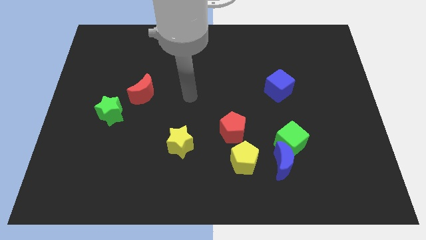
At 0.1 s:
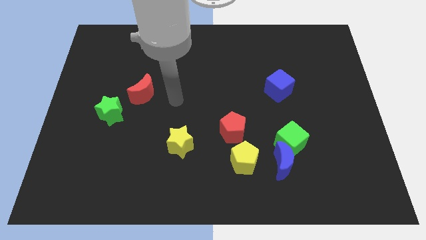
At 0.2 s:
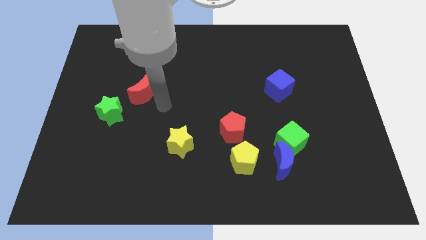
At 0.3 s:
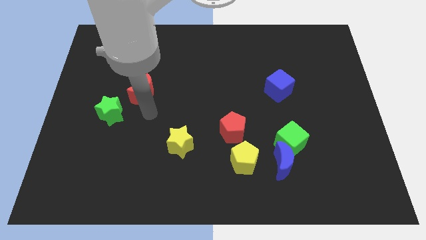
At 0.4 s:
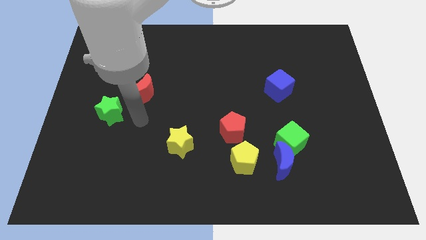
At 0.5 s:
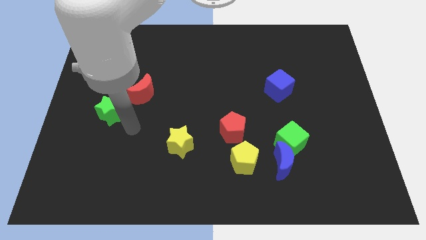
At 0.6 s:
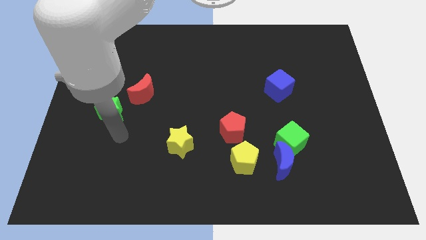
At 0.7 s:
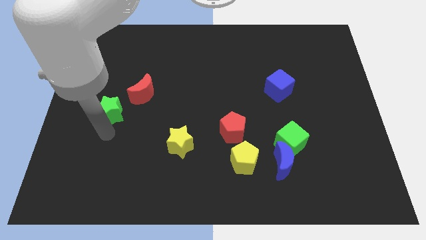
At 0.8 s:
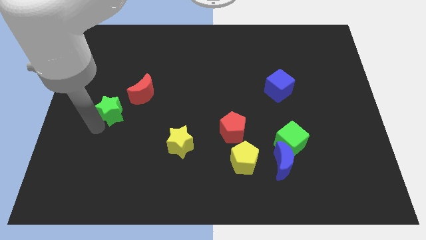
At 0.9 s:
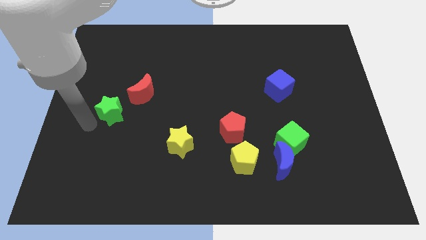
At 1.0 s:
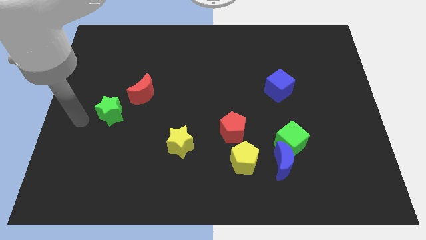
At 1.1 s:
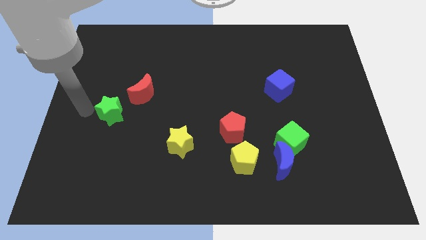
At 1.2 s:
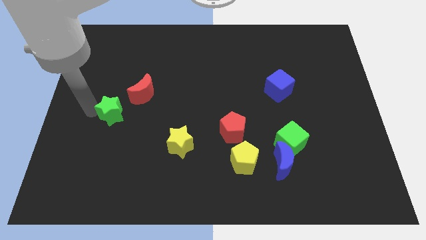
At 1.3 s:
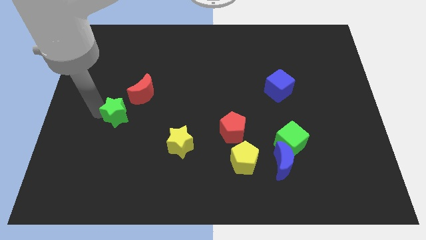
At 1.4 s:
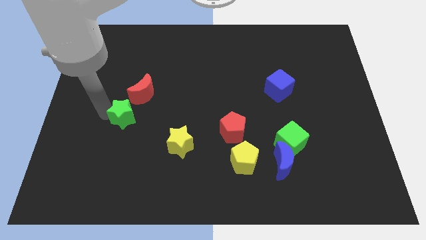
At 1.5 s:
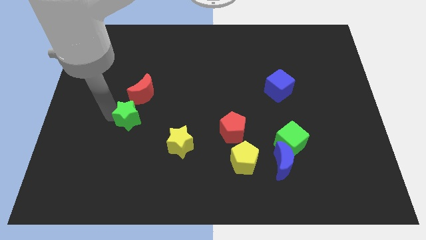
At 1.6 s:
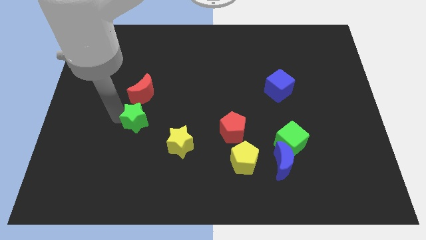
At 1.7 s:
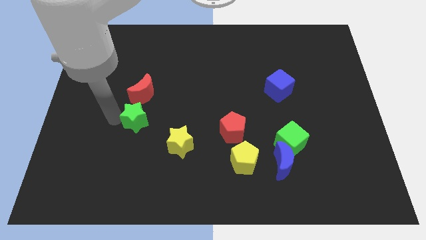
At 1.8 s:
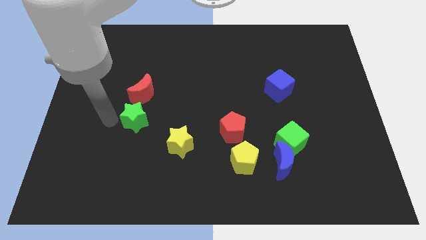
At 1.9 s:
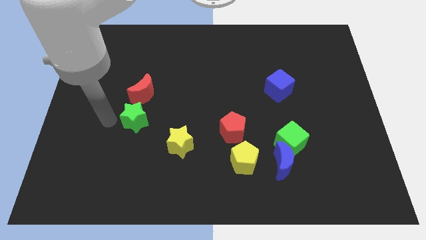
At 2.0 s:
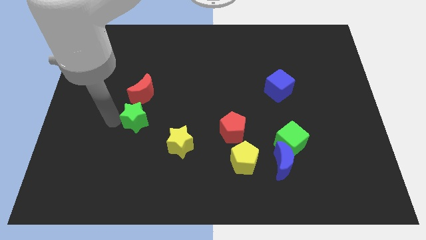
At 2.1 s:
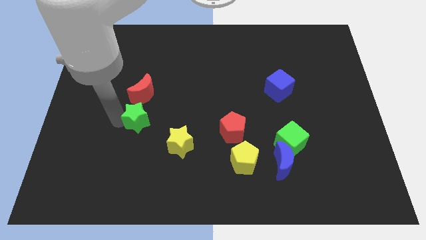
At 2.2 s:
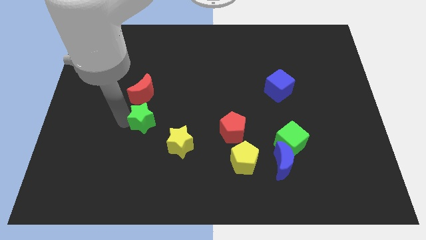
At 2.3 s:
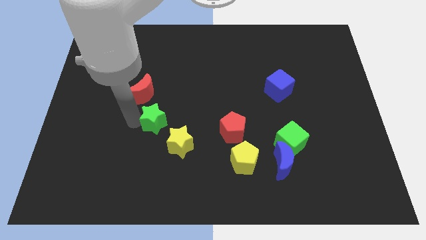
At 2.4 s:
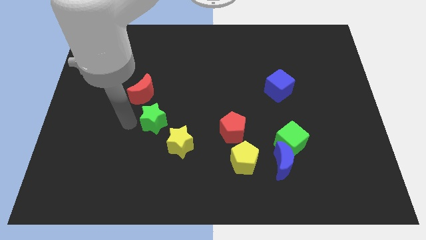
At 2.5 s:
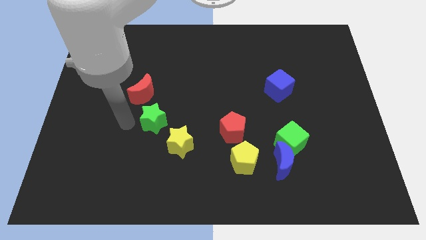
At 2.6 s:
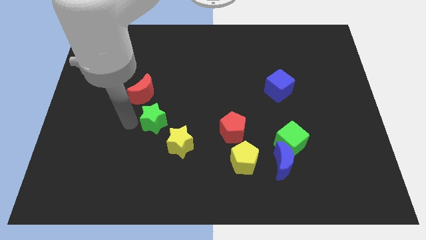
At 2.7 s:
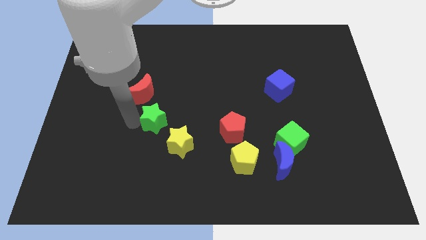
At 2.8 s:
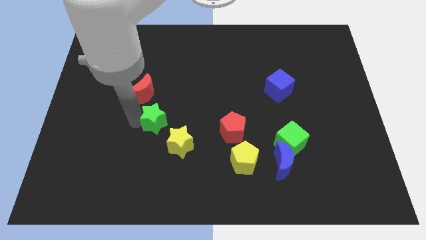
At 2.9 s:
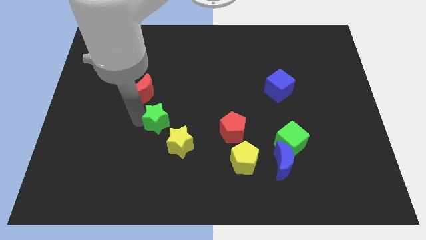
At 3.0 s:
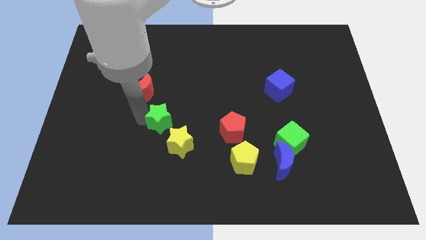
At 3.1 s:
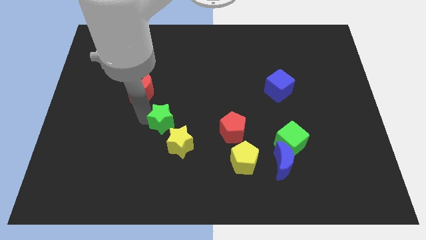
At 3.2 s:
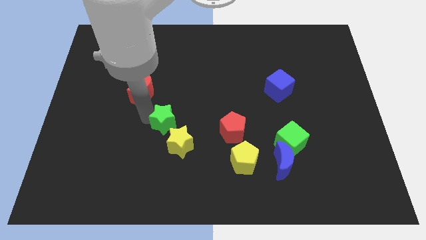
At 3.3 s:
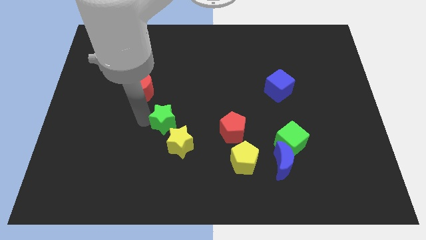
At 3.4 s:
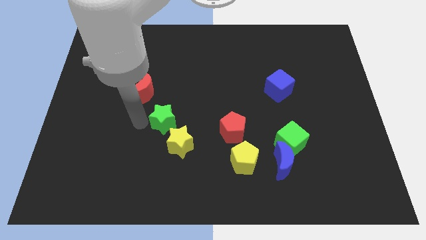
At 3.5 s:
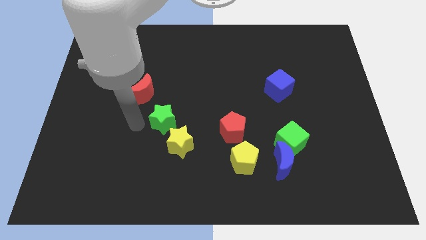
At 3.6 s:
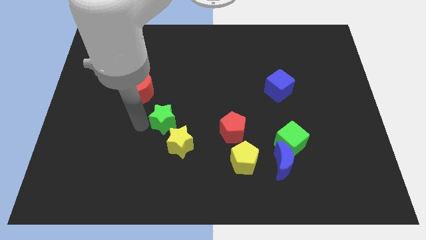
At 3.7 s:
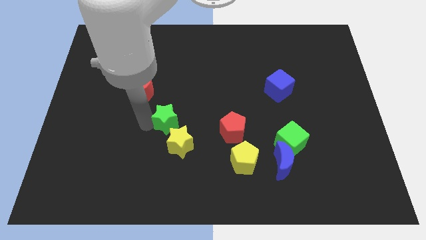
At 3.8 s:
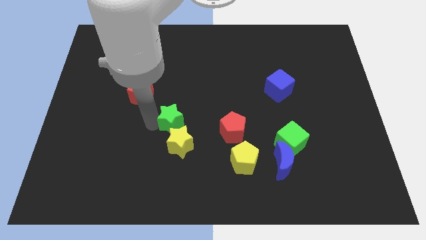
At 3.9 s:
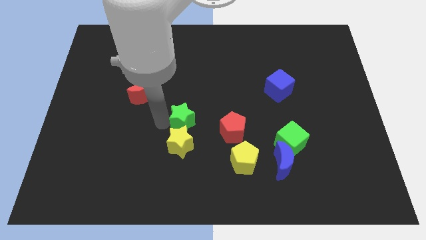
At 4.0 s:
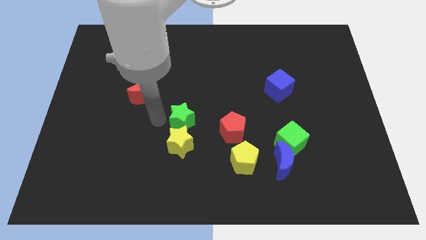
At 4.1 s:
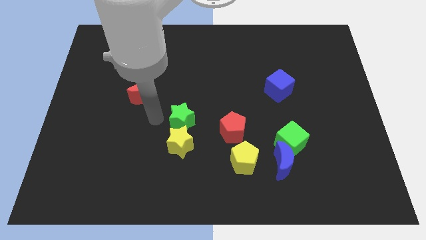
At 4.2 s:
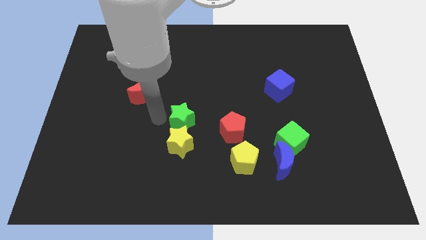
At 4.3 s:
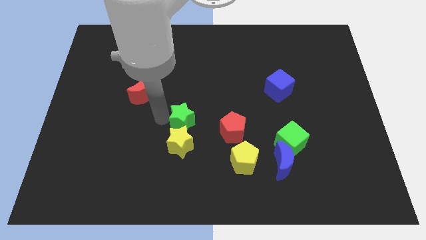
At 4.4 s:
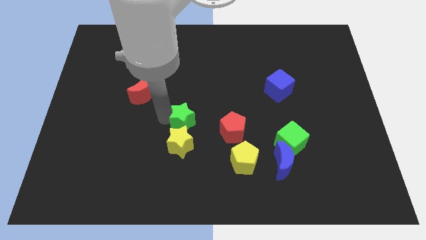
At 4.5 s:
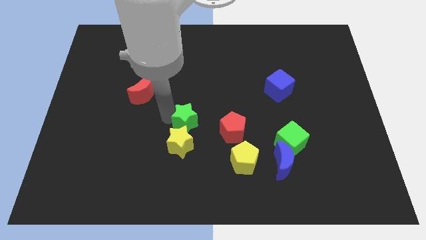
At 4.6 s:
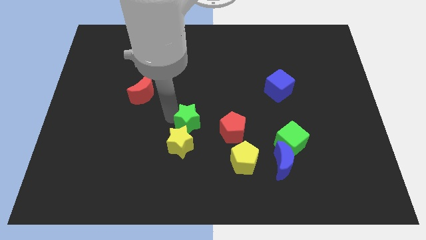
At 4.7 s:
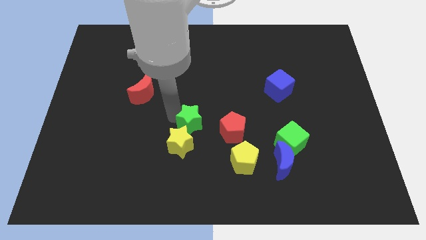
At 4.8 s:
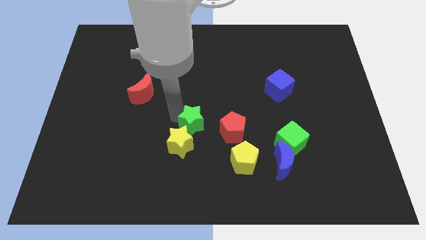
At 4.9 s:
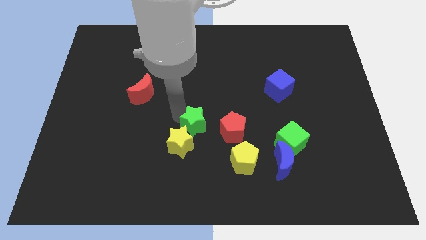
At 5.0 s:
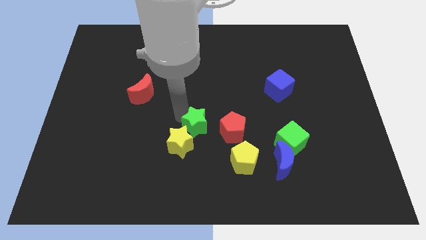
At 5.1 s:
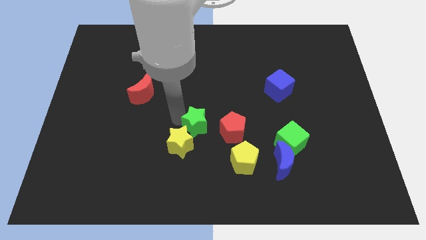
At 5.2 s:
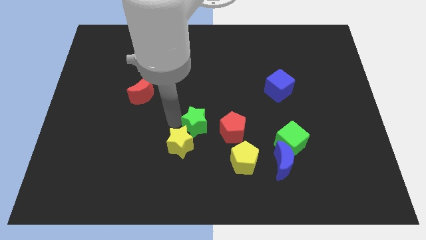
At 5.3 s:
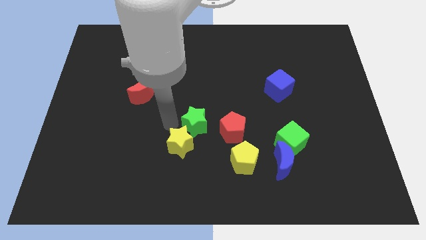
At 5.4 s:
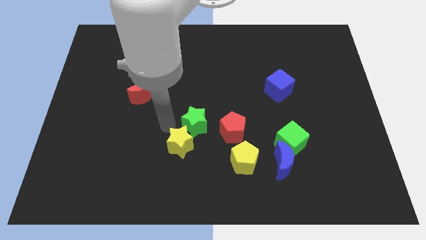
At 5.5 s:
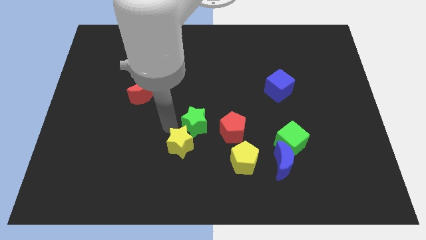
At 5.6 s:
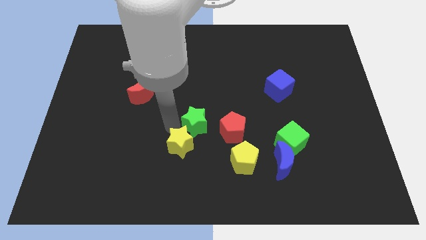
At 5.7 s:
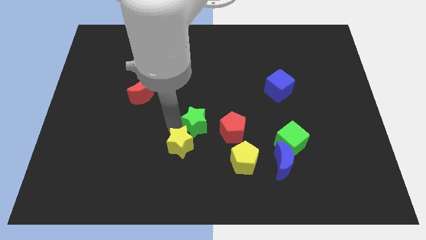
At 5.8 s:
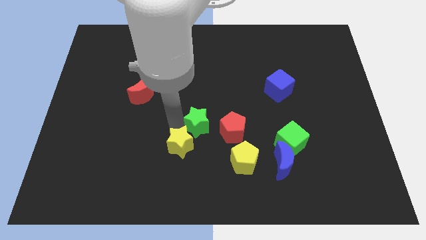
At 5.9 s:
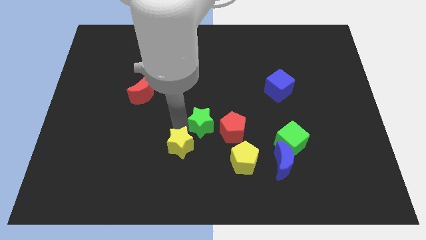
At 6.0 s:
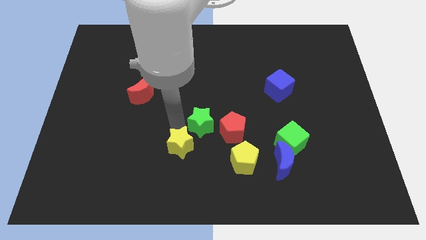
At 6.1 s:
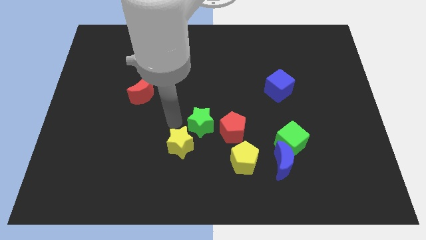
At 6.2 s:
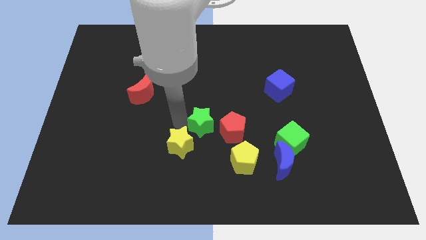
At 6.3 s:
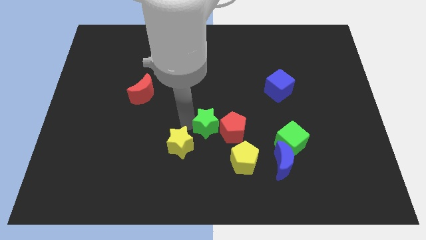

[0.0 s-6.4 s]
push the green star towards the red pentagon

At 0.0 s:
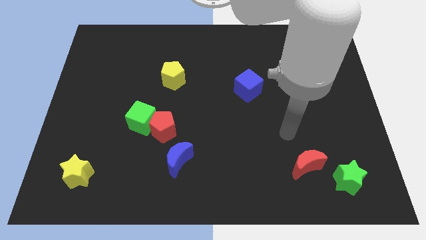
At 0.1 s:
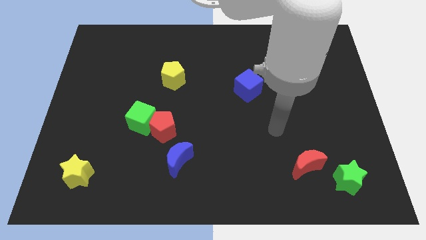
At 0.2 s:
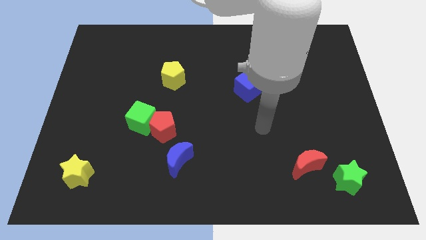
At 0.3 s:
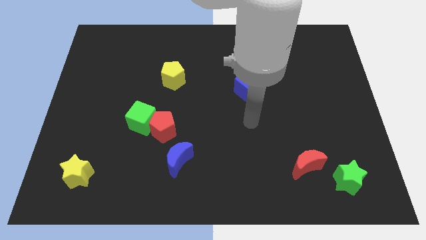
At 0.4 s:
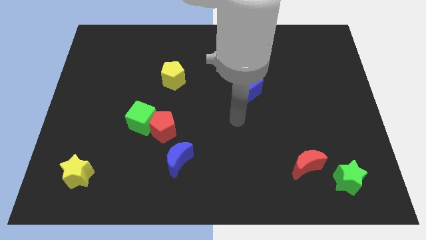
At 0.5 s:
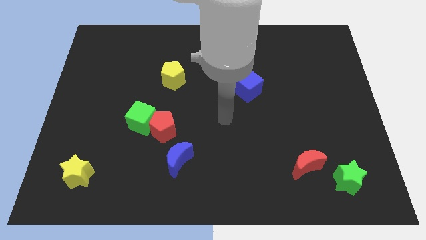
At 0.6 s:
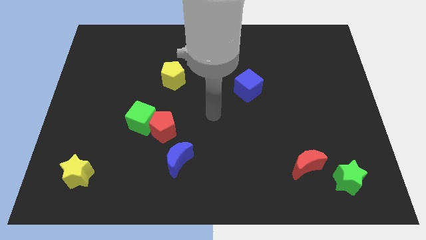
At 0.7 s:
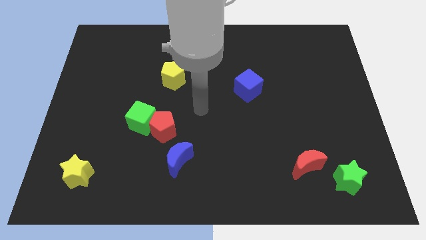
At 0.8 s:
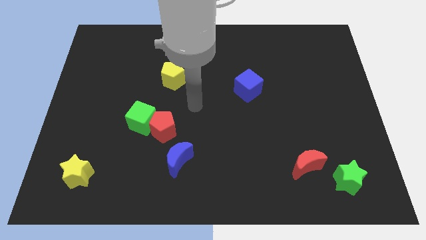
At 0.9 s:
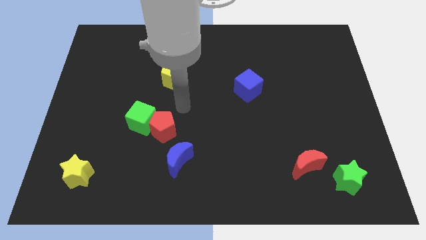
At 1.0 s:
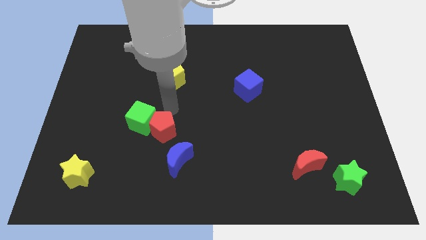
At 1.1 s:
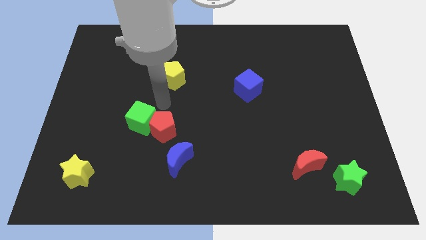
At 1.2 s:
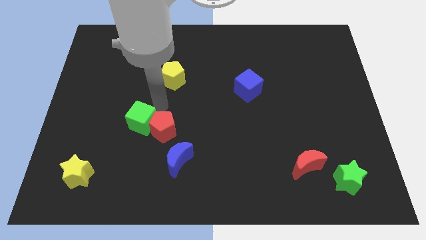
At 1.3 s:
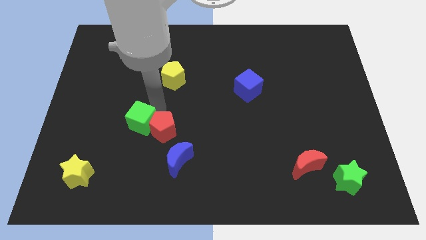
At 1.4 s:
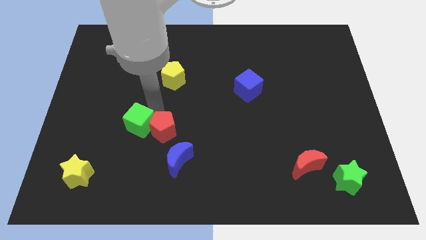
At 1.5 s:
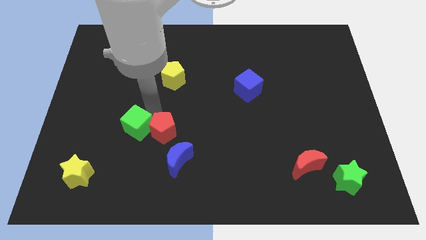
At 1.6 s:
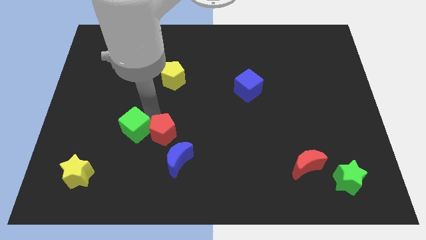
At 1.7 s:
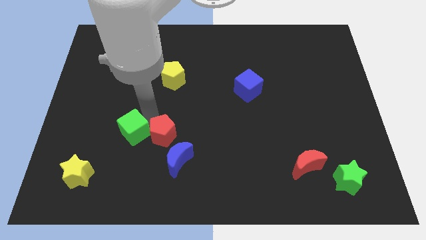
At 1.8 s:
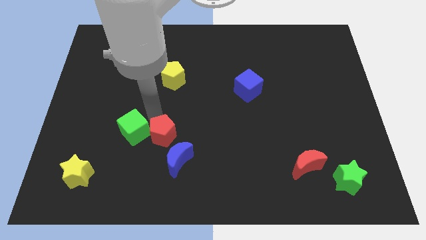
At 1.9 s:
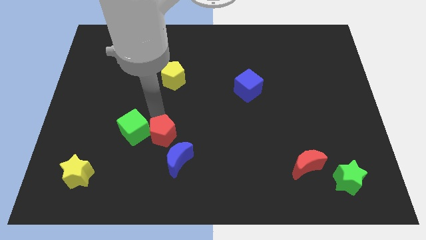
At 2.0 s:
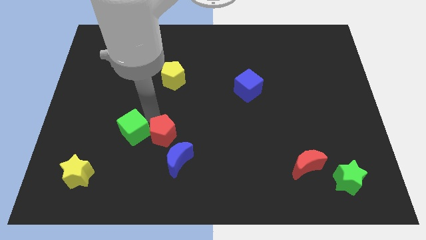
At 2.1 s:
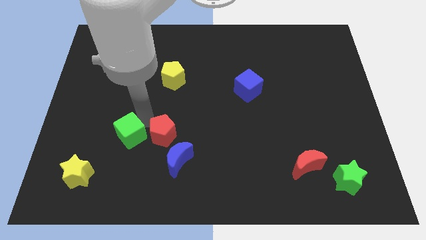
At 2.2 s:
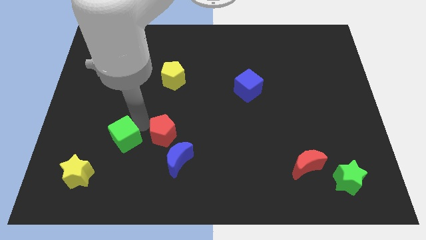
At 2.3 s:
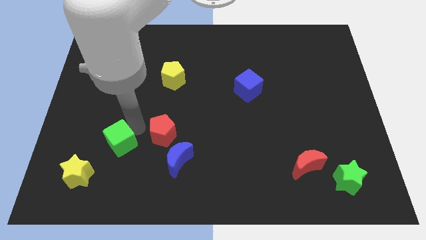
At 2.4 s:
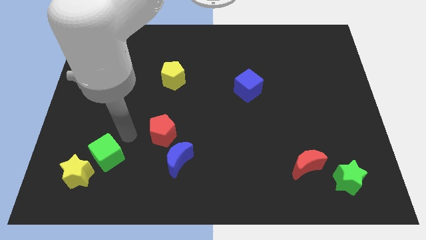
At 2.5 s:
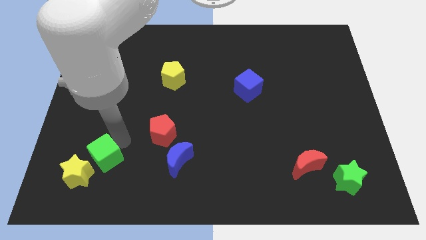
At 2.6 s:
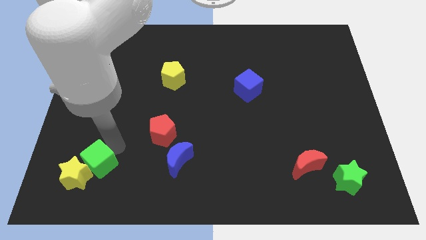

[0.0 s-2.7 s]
slide the green cube towards the yellow star
